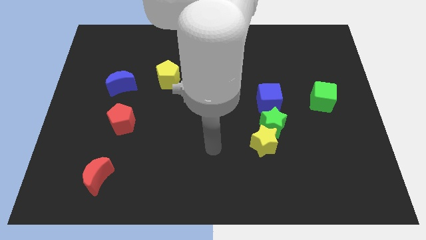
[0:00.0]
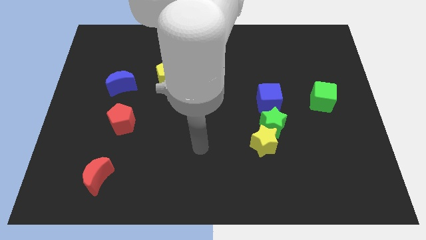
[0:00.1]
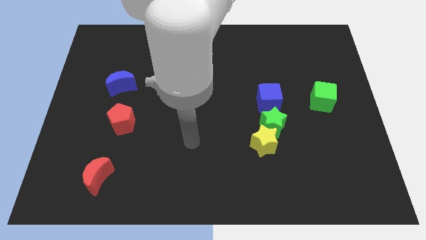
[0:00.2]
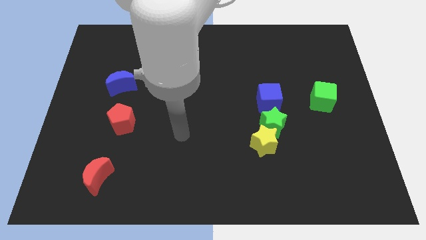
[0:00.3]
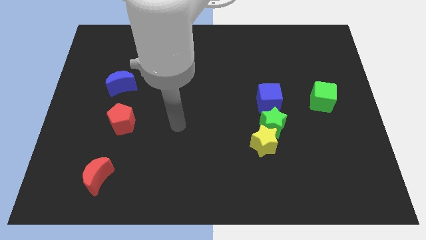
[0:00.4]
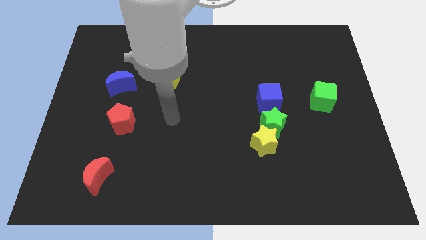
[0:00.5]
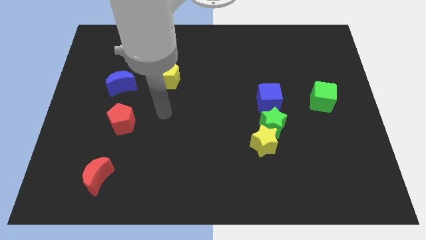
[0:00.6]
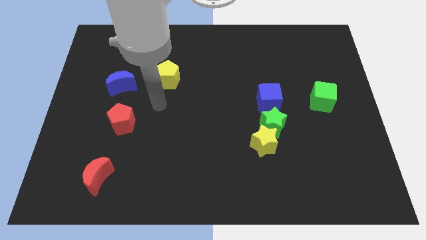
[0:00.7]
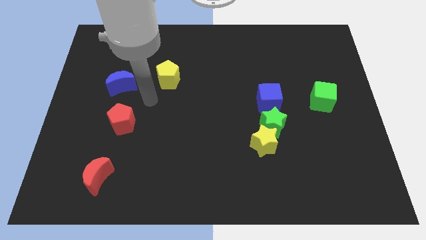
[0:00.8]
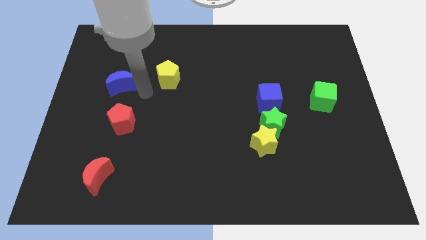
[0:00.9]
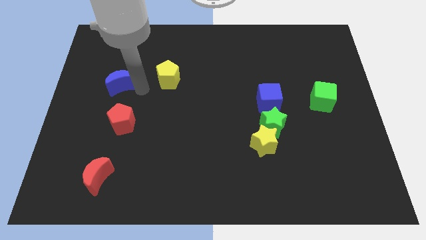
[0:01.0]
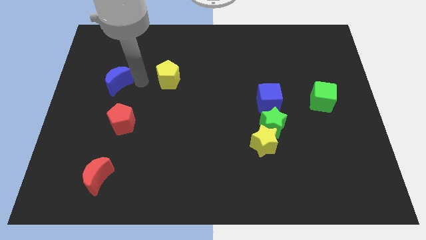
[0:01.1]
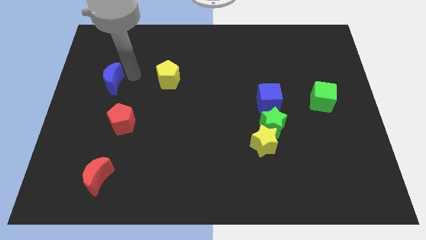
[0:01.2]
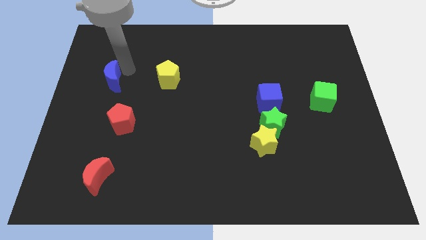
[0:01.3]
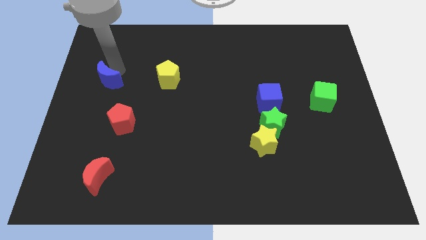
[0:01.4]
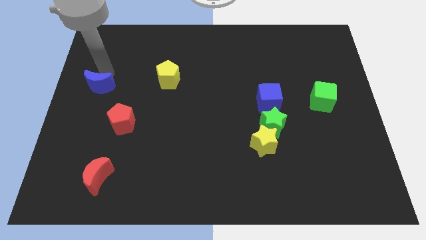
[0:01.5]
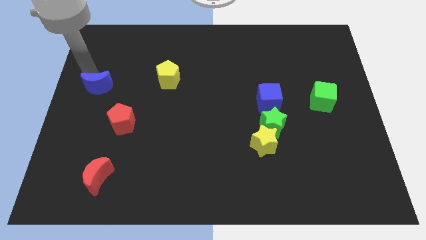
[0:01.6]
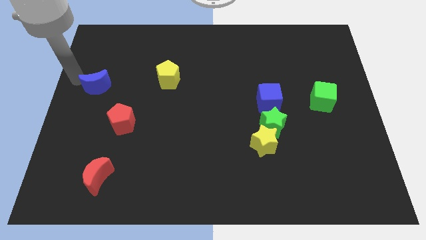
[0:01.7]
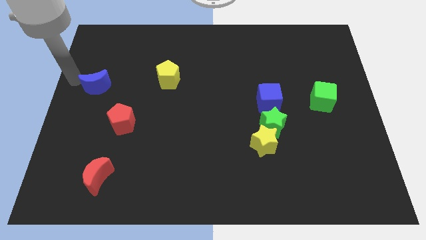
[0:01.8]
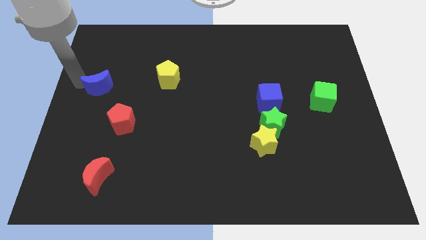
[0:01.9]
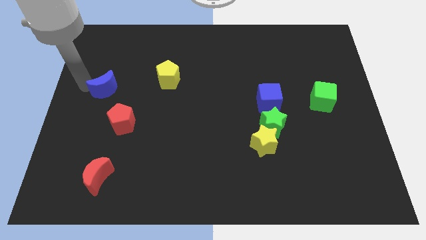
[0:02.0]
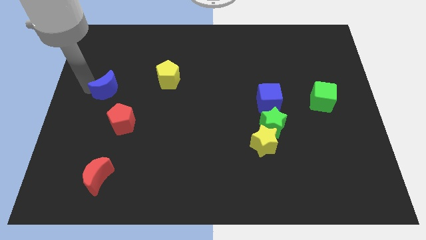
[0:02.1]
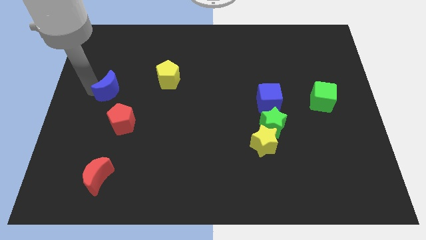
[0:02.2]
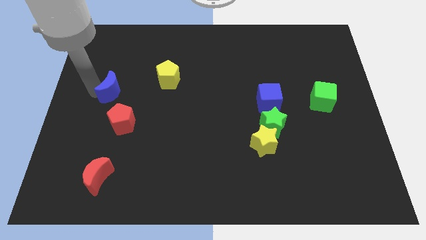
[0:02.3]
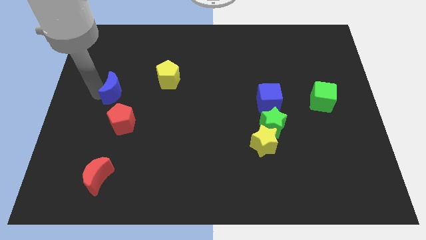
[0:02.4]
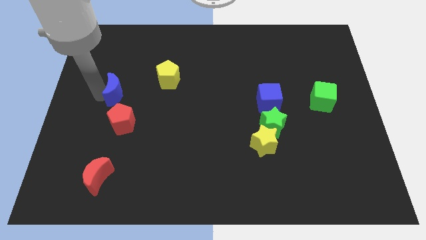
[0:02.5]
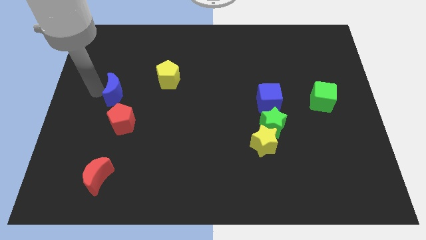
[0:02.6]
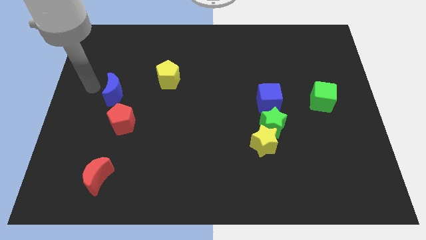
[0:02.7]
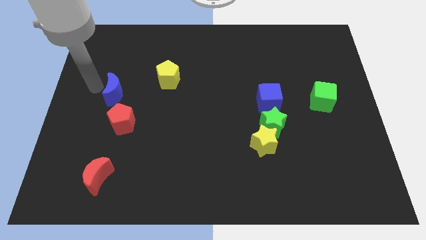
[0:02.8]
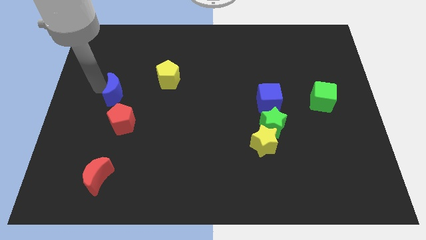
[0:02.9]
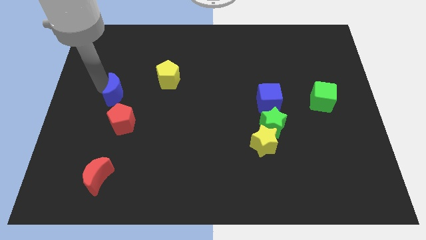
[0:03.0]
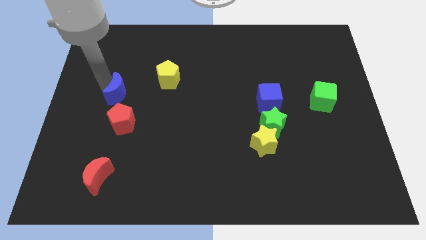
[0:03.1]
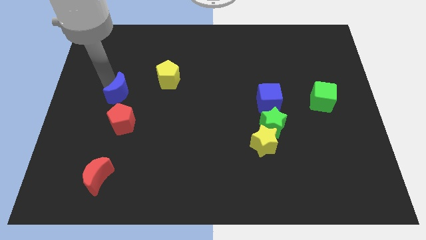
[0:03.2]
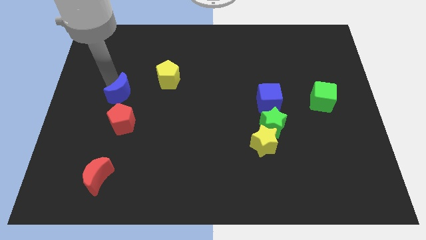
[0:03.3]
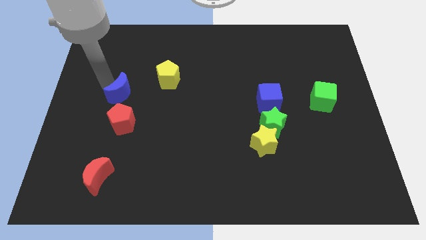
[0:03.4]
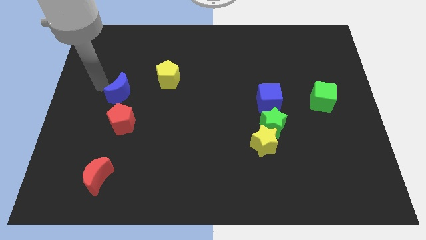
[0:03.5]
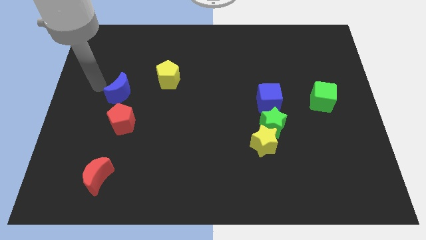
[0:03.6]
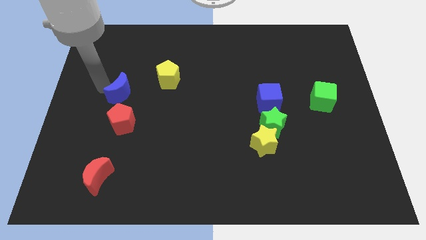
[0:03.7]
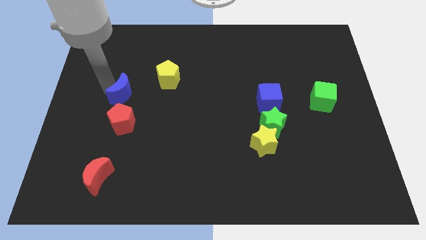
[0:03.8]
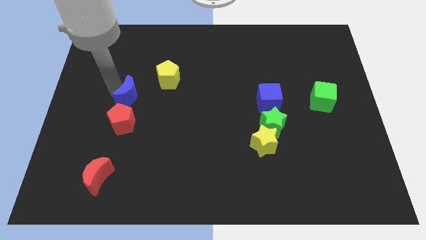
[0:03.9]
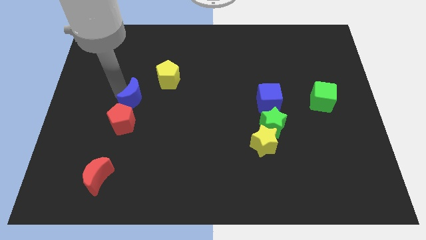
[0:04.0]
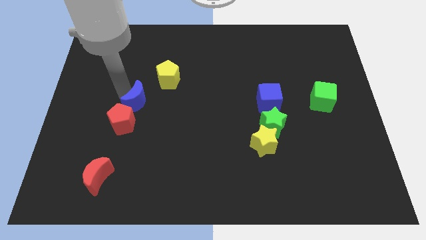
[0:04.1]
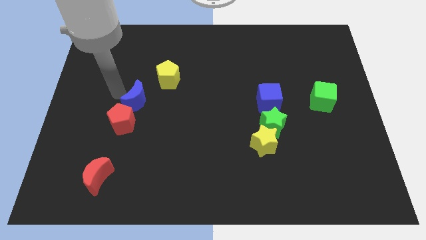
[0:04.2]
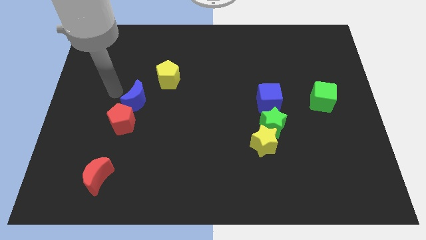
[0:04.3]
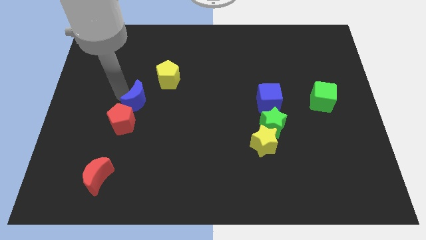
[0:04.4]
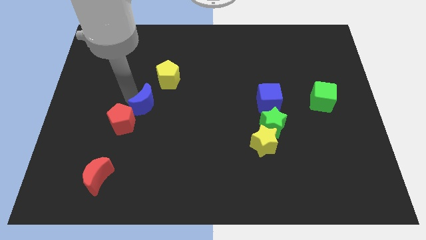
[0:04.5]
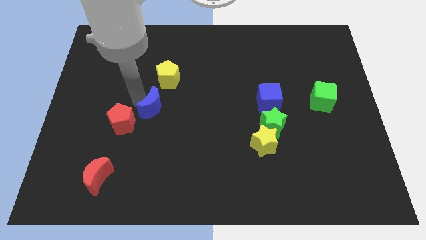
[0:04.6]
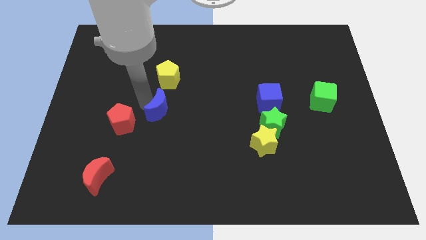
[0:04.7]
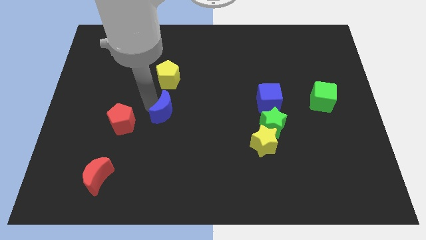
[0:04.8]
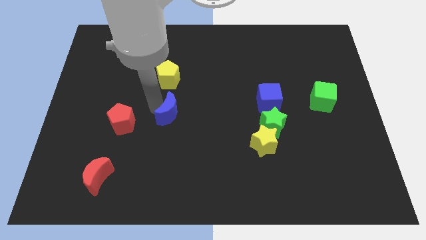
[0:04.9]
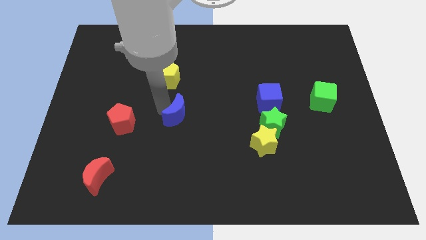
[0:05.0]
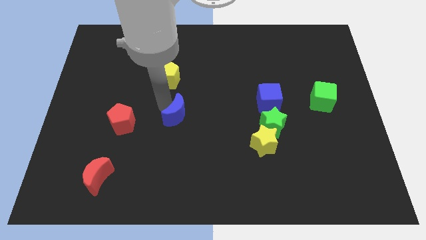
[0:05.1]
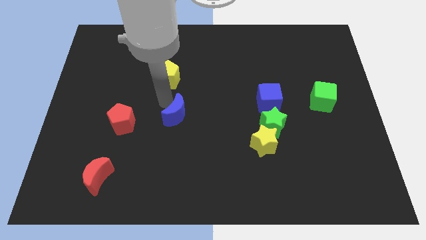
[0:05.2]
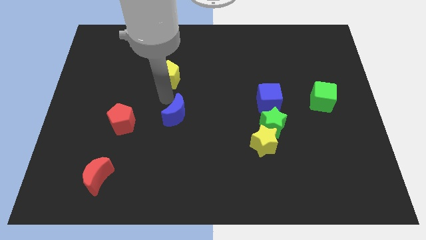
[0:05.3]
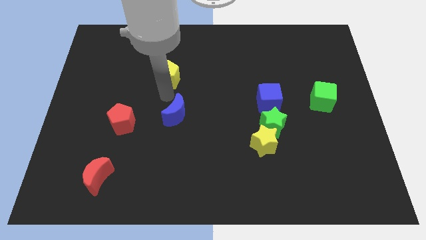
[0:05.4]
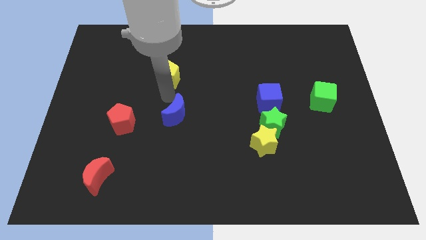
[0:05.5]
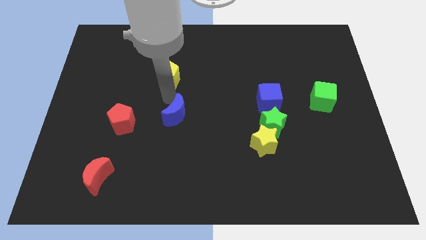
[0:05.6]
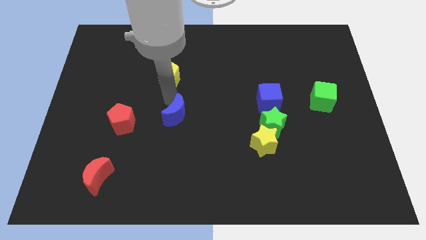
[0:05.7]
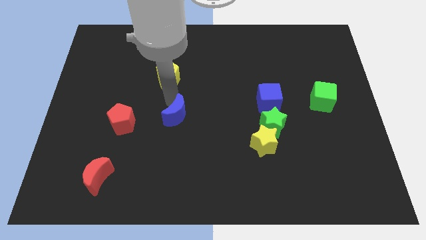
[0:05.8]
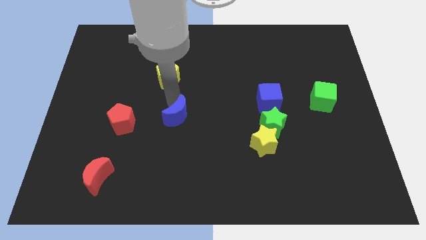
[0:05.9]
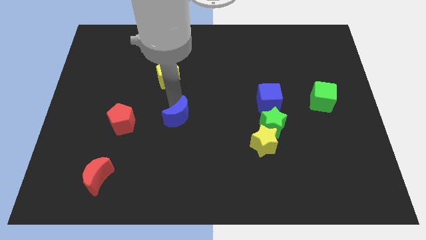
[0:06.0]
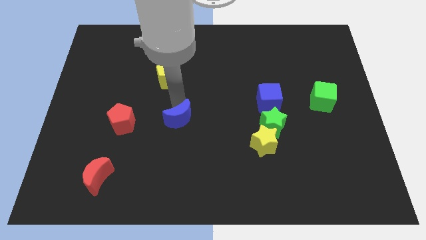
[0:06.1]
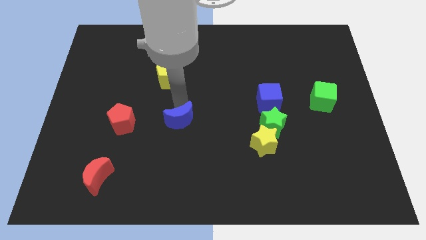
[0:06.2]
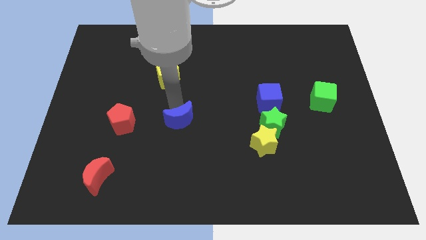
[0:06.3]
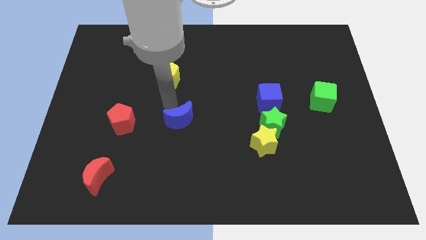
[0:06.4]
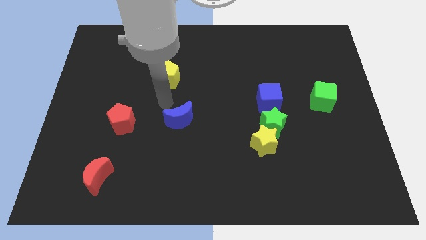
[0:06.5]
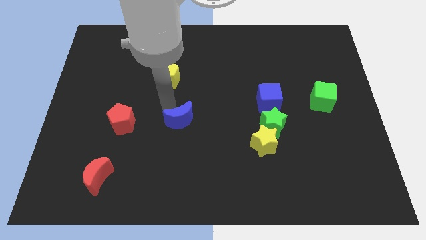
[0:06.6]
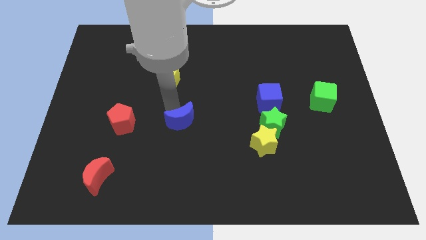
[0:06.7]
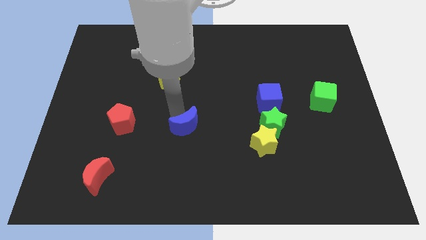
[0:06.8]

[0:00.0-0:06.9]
push the blue moon down and then to the right

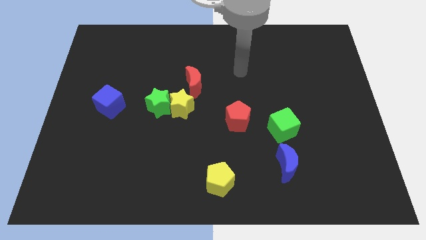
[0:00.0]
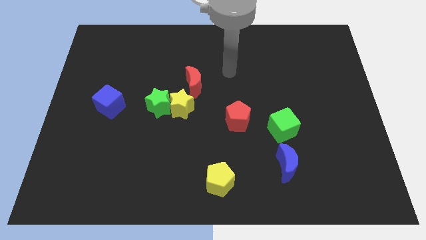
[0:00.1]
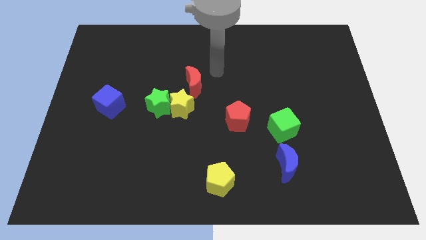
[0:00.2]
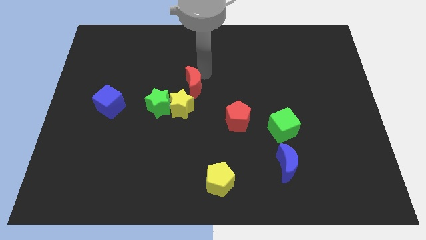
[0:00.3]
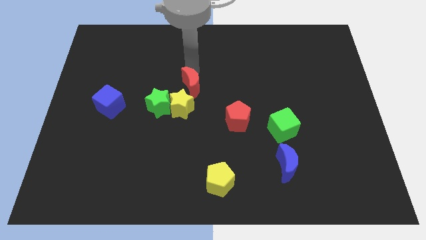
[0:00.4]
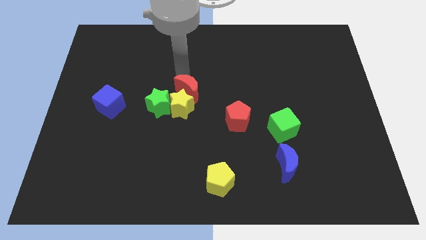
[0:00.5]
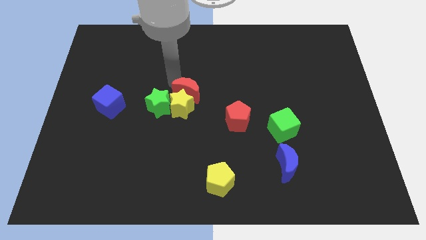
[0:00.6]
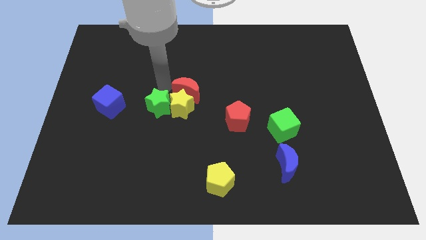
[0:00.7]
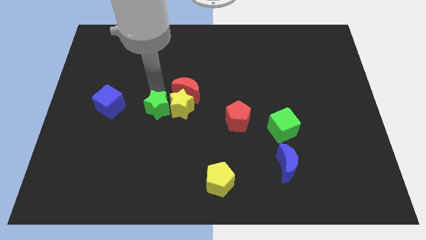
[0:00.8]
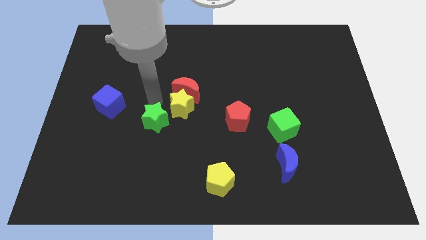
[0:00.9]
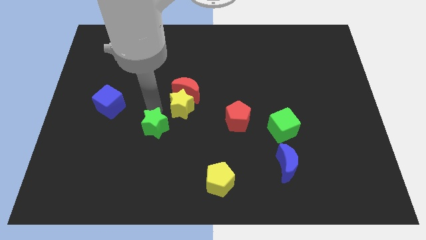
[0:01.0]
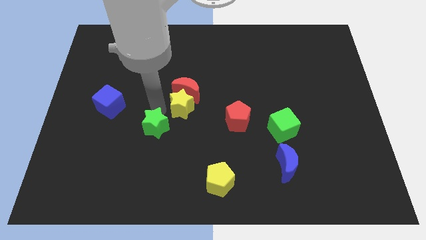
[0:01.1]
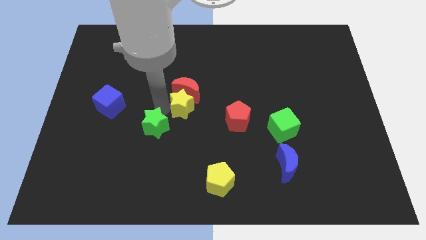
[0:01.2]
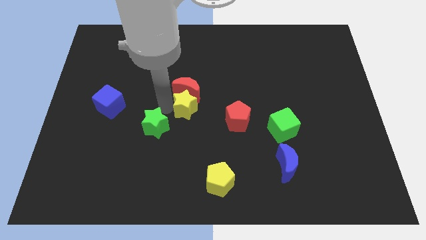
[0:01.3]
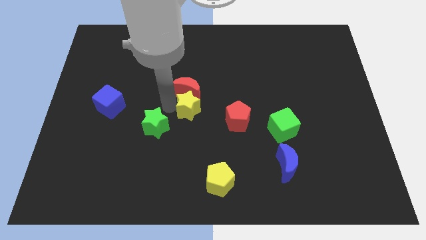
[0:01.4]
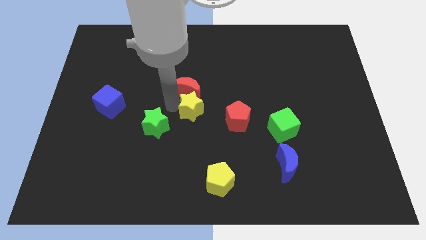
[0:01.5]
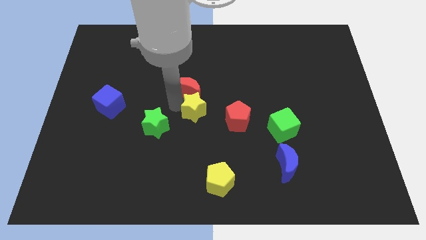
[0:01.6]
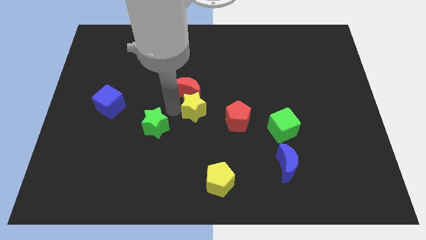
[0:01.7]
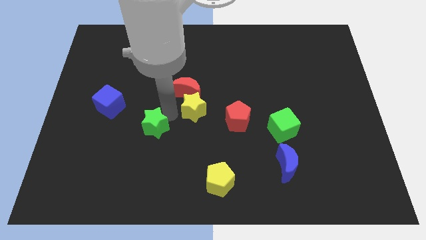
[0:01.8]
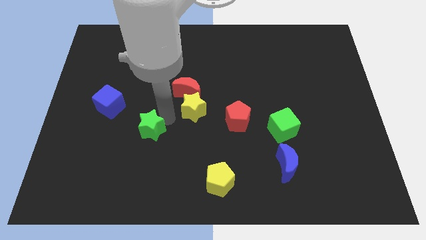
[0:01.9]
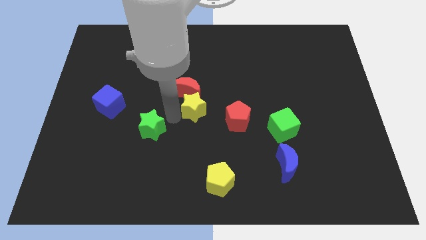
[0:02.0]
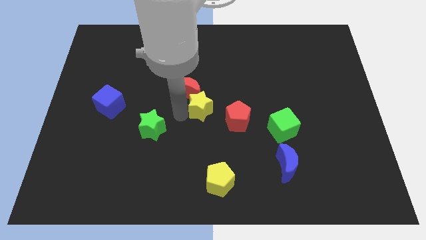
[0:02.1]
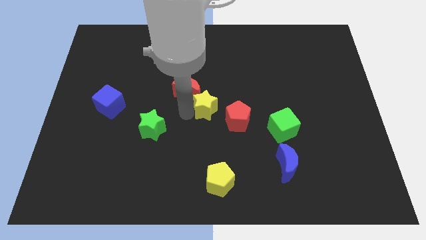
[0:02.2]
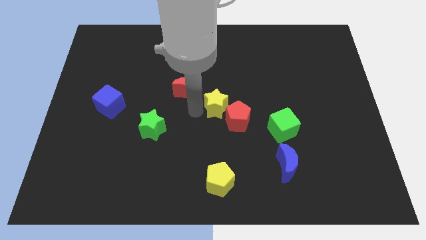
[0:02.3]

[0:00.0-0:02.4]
slide the yellow star to the right a little
